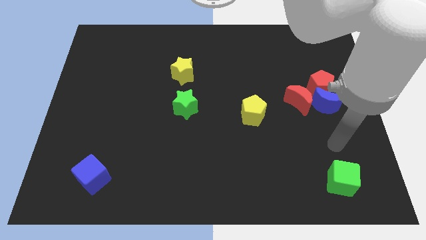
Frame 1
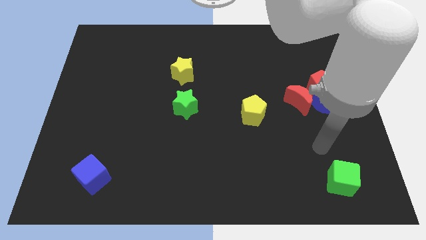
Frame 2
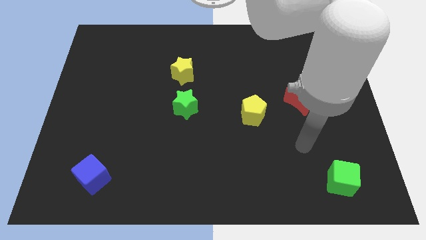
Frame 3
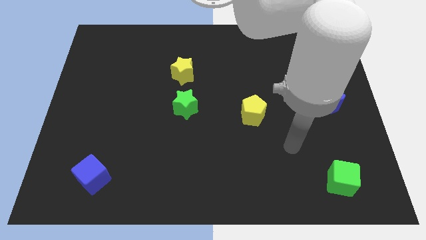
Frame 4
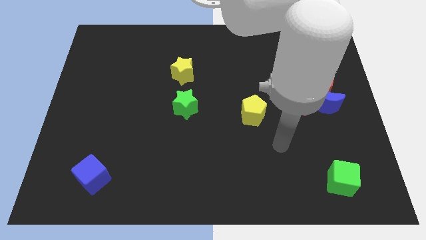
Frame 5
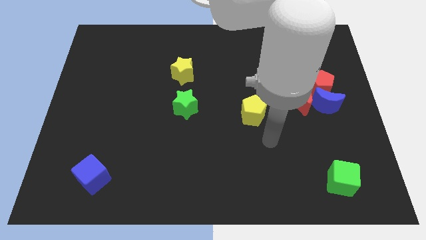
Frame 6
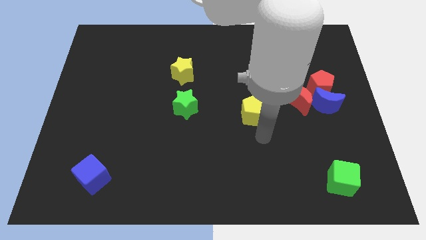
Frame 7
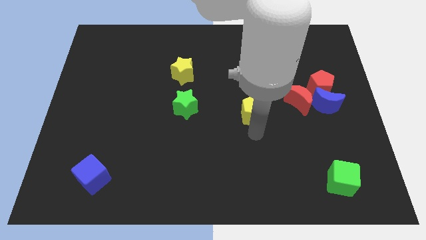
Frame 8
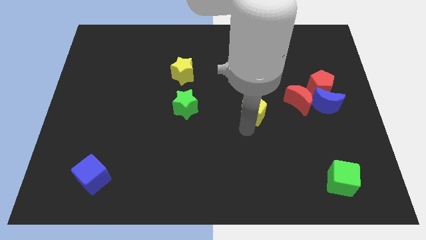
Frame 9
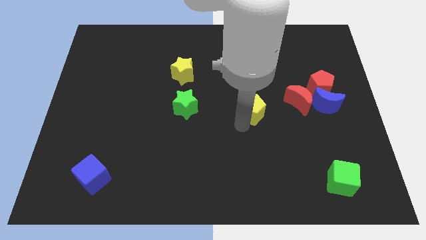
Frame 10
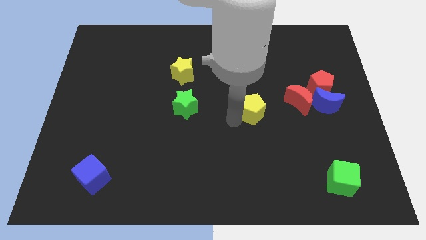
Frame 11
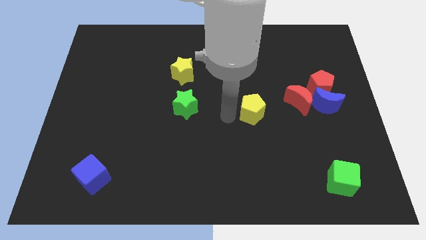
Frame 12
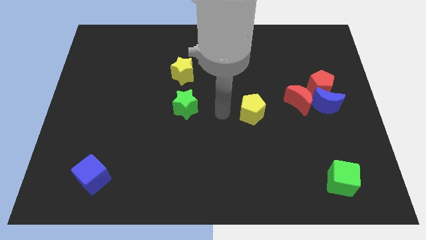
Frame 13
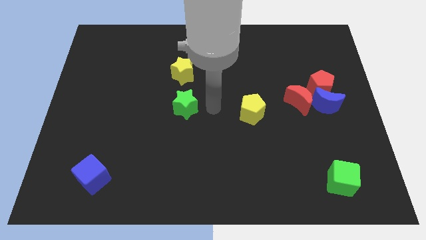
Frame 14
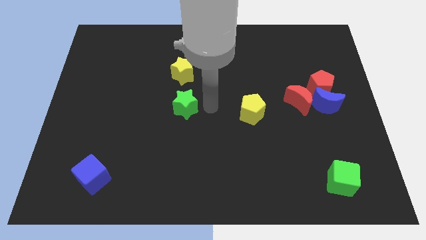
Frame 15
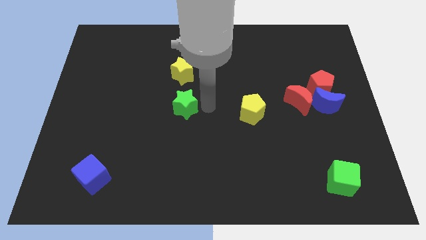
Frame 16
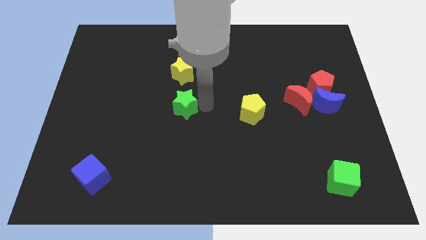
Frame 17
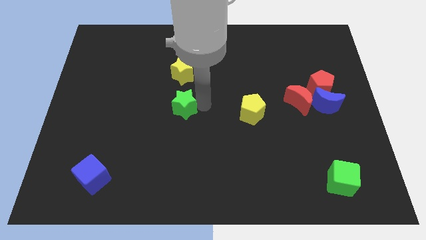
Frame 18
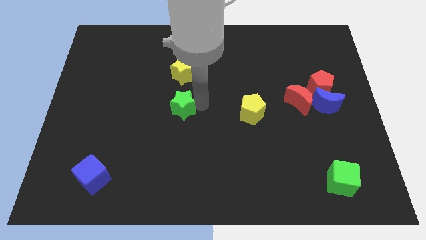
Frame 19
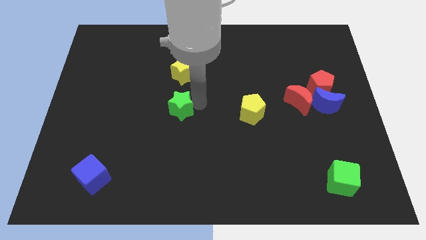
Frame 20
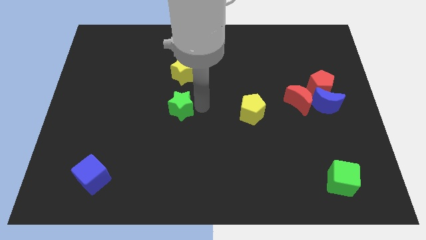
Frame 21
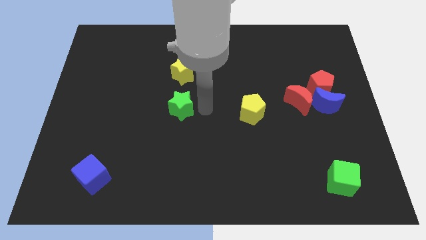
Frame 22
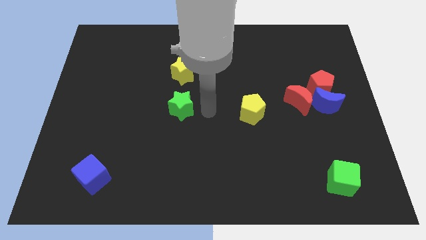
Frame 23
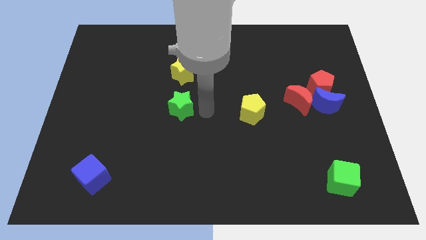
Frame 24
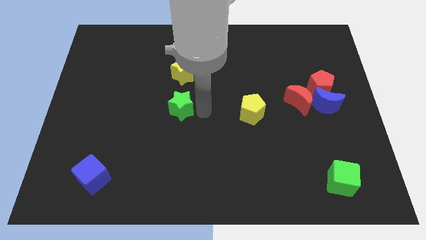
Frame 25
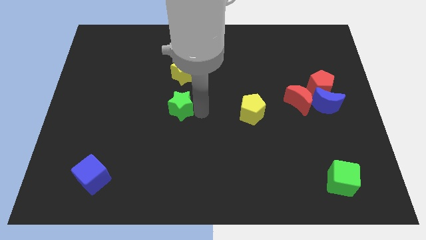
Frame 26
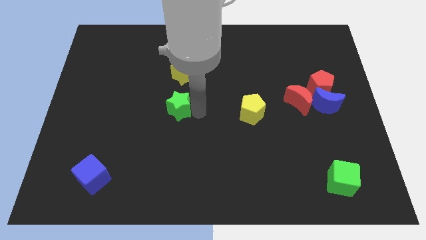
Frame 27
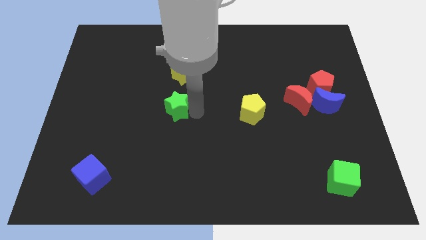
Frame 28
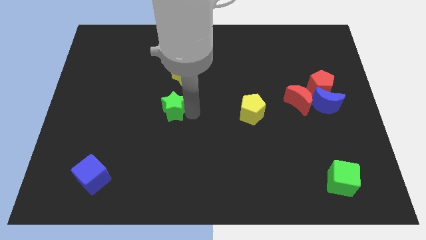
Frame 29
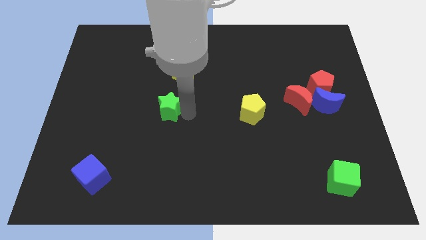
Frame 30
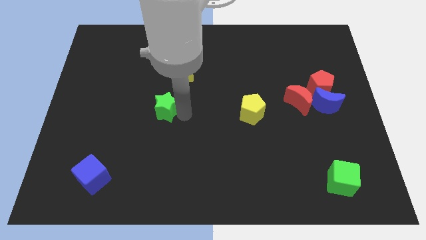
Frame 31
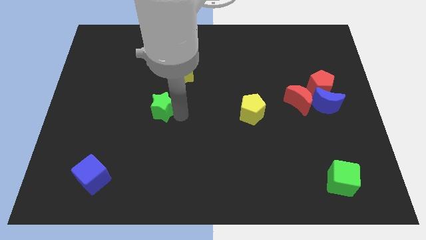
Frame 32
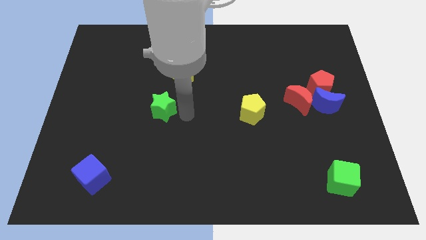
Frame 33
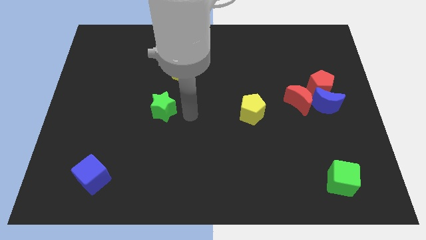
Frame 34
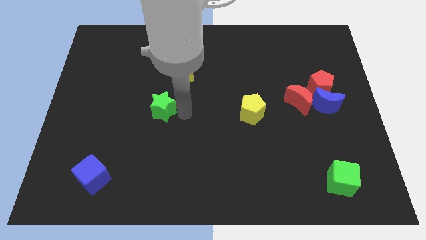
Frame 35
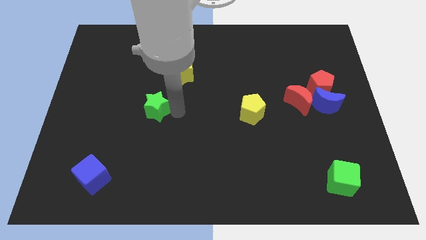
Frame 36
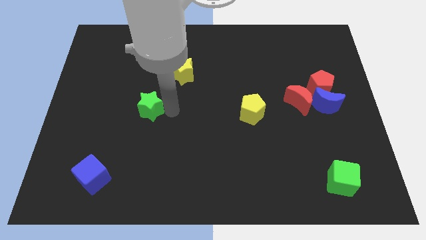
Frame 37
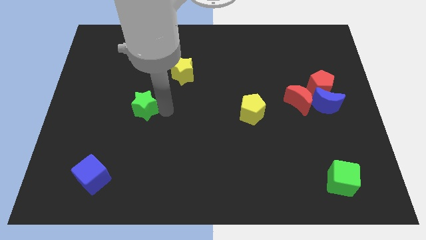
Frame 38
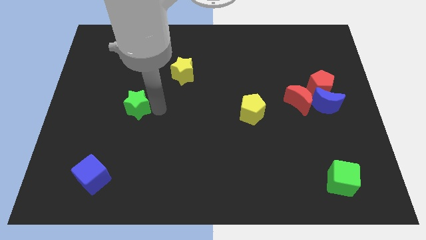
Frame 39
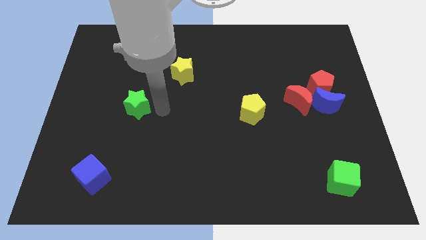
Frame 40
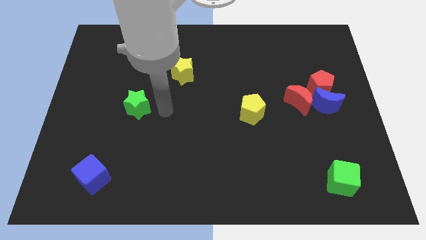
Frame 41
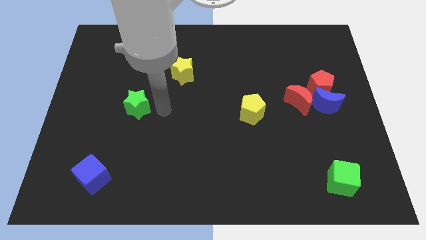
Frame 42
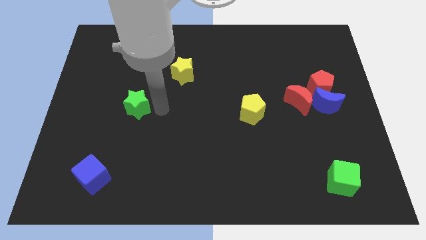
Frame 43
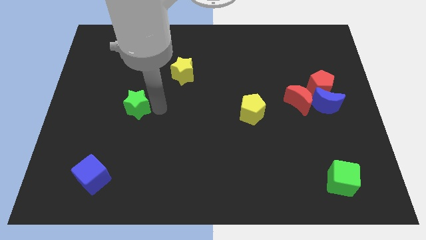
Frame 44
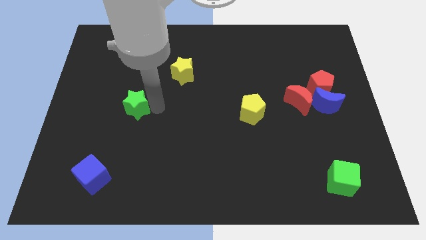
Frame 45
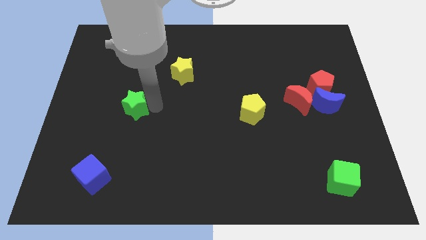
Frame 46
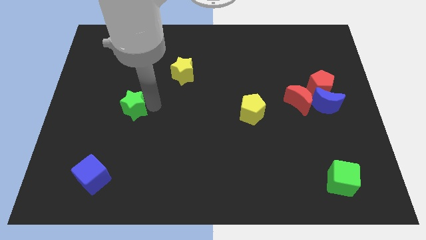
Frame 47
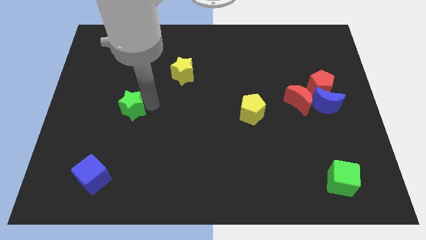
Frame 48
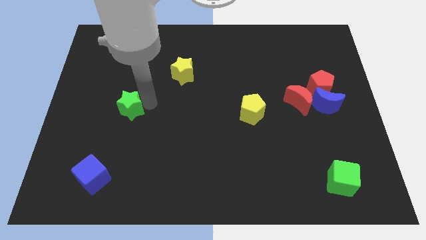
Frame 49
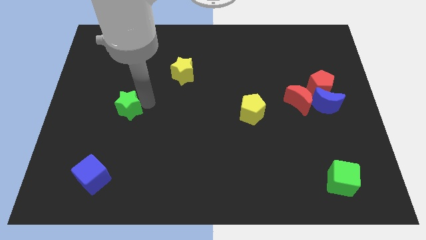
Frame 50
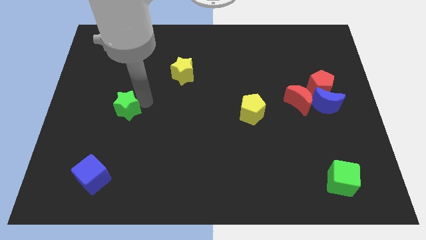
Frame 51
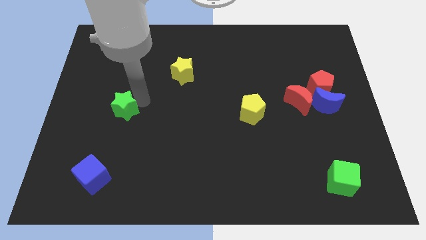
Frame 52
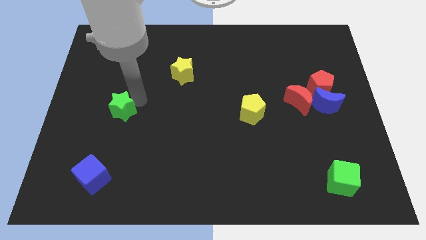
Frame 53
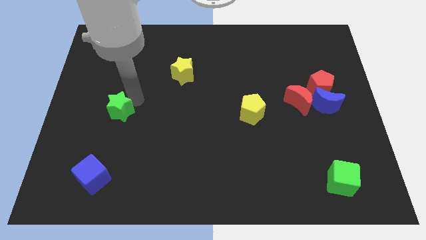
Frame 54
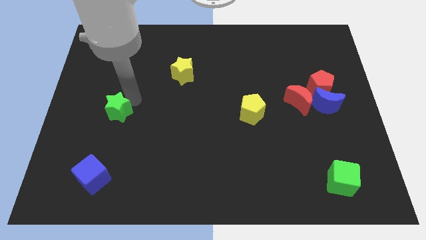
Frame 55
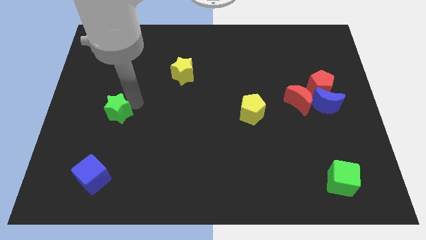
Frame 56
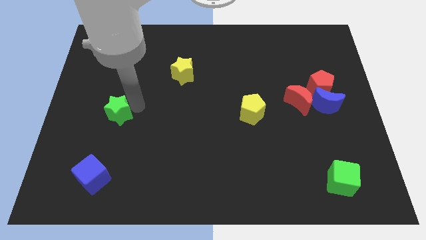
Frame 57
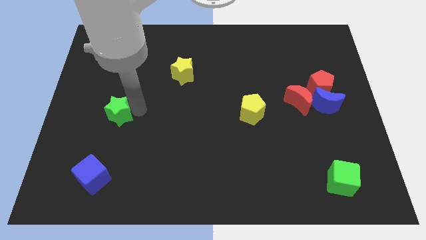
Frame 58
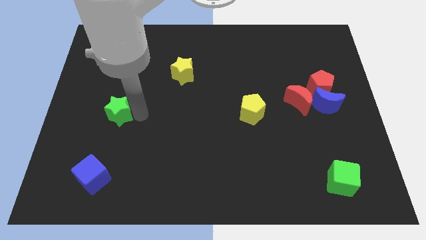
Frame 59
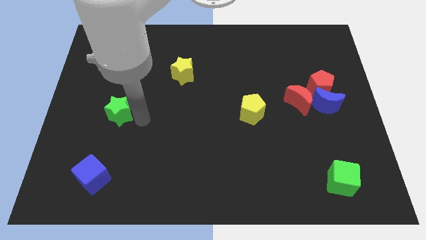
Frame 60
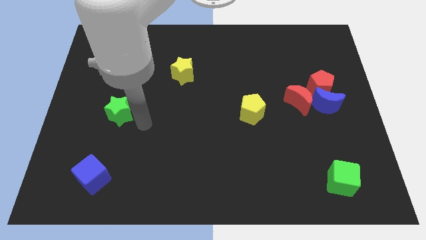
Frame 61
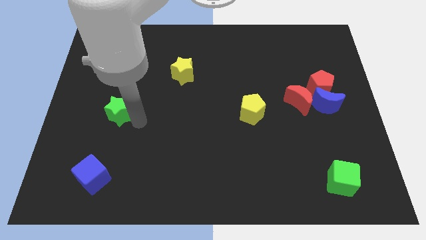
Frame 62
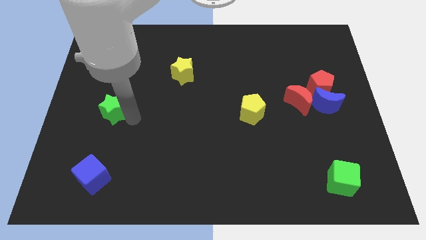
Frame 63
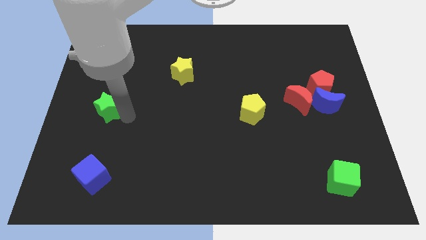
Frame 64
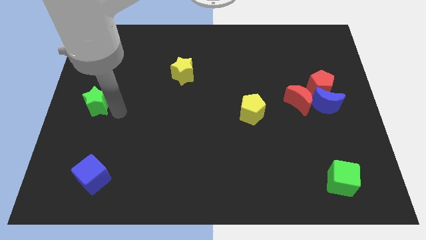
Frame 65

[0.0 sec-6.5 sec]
slide the green star to the left side
